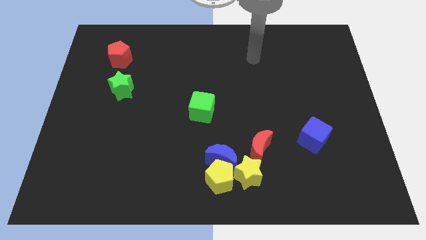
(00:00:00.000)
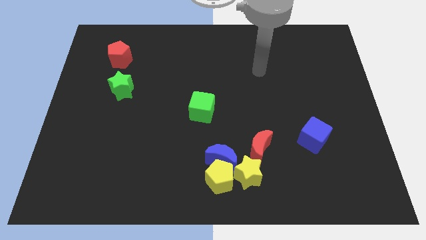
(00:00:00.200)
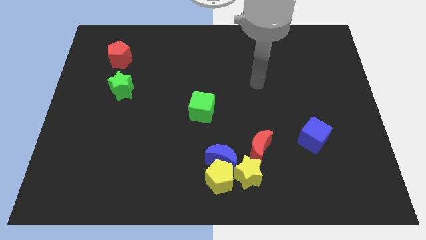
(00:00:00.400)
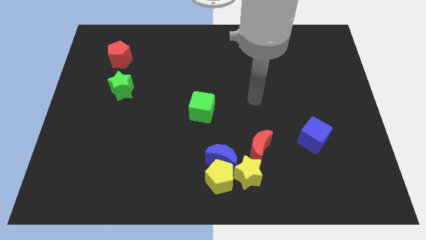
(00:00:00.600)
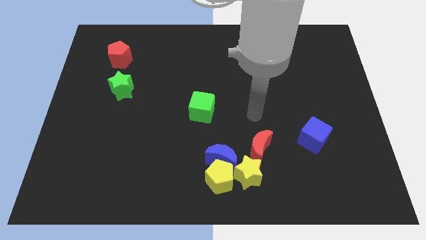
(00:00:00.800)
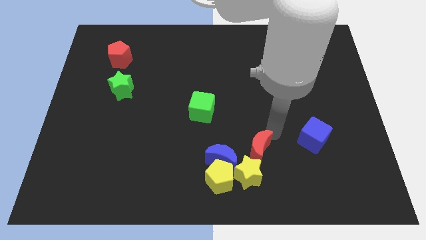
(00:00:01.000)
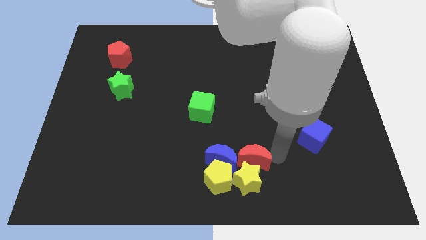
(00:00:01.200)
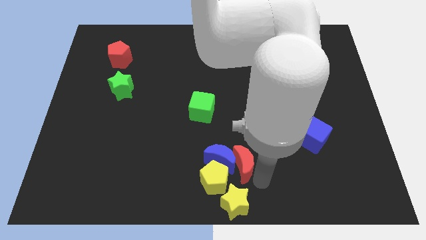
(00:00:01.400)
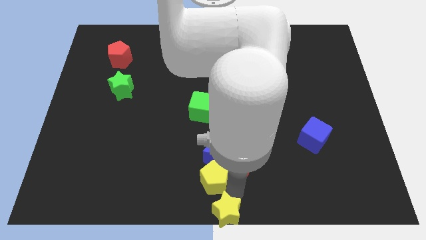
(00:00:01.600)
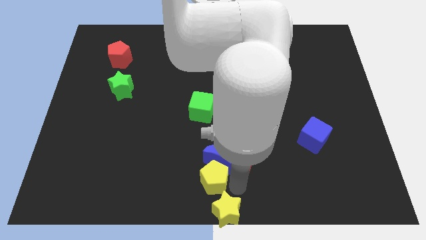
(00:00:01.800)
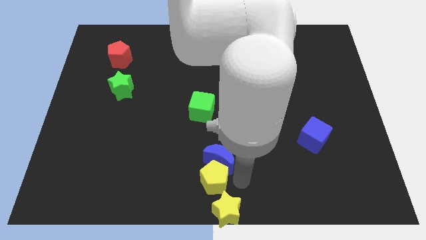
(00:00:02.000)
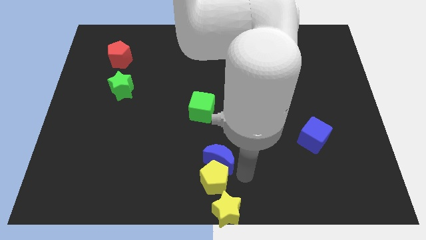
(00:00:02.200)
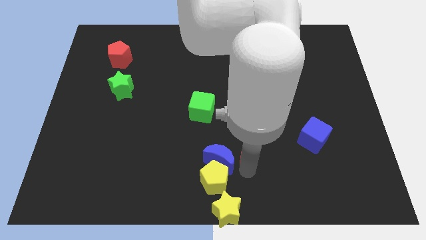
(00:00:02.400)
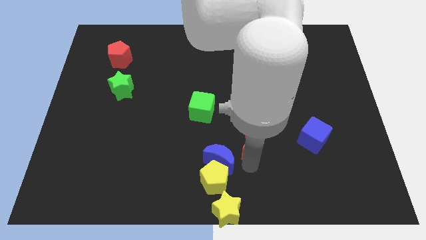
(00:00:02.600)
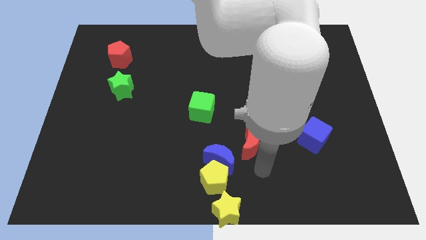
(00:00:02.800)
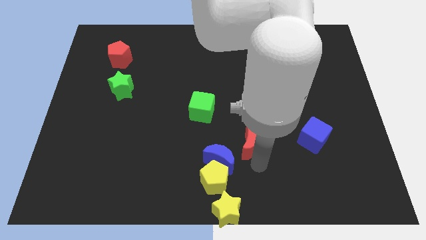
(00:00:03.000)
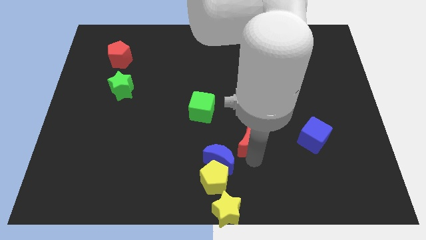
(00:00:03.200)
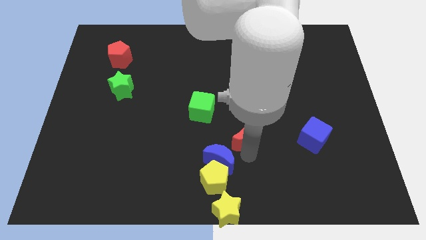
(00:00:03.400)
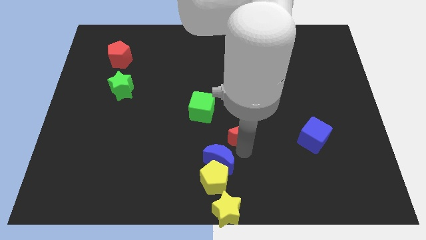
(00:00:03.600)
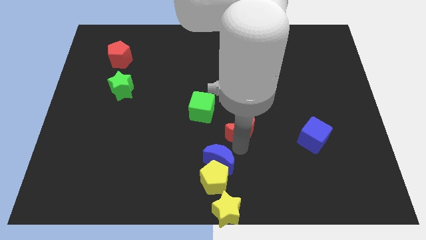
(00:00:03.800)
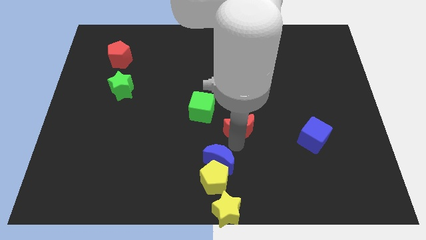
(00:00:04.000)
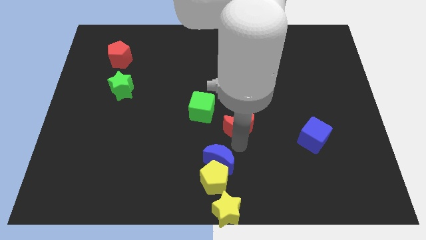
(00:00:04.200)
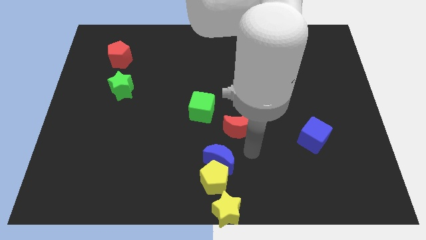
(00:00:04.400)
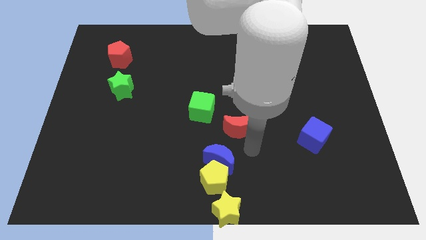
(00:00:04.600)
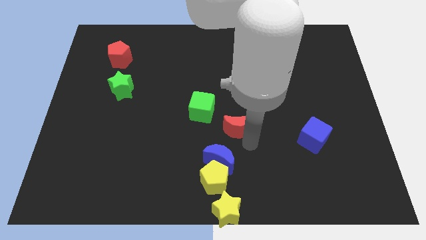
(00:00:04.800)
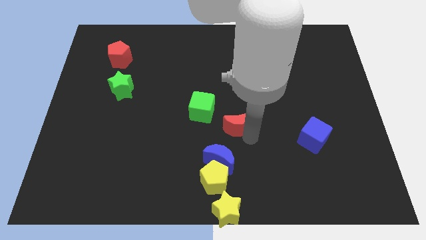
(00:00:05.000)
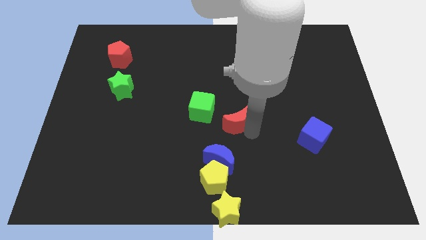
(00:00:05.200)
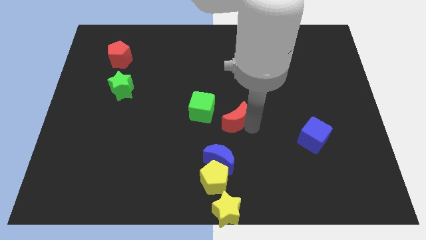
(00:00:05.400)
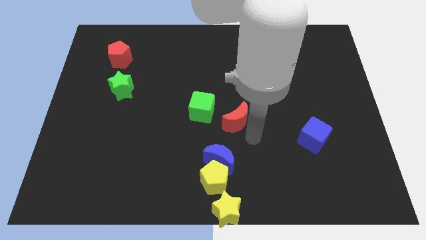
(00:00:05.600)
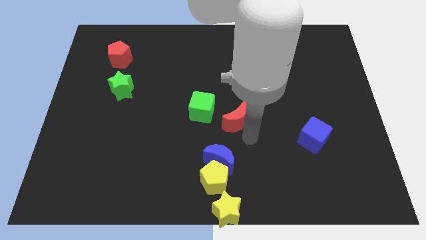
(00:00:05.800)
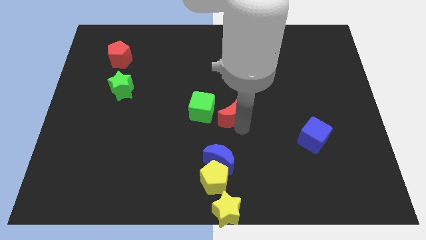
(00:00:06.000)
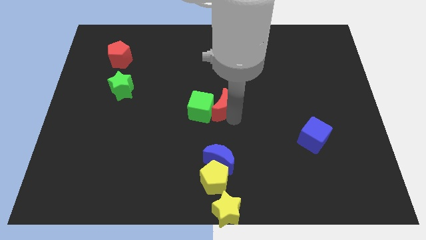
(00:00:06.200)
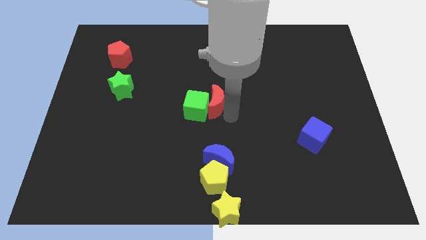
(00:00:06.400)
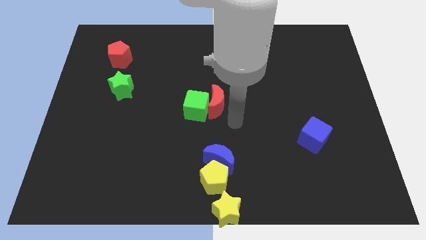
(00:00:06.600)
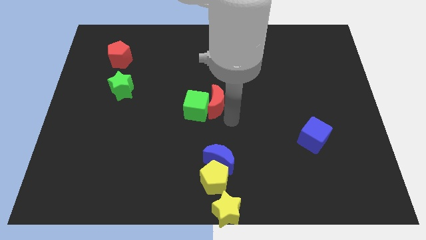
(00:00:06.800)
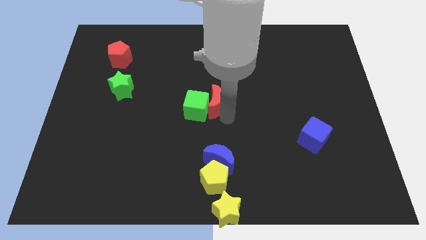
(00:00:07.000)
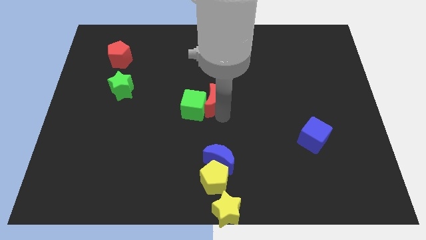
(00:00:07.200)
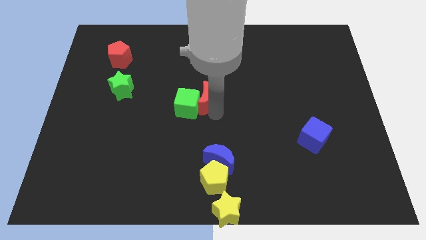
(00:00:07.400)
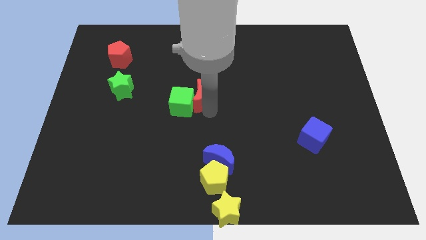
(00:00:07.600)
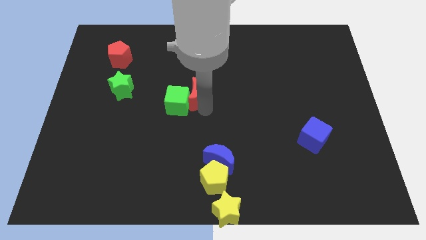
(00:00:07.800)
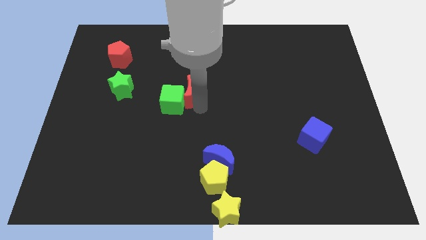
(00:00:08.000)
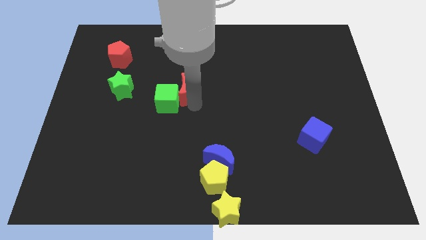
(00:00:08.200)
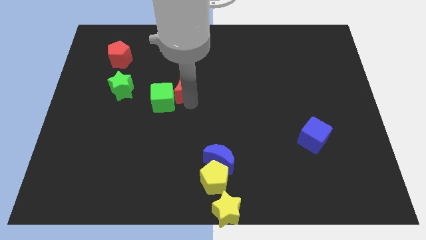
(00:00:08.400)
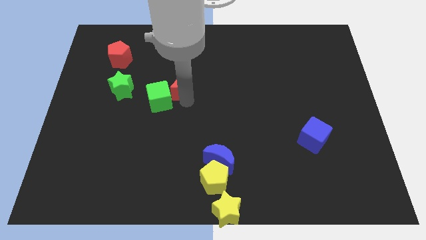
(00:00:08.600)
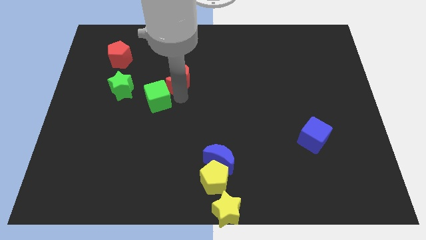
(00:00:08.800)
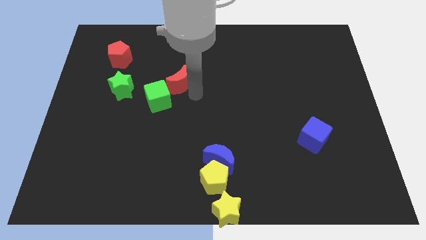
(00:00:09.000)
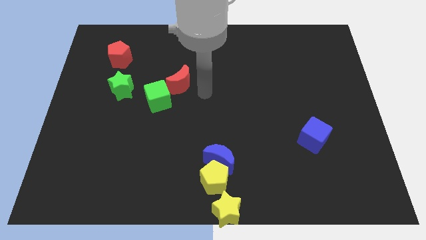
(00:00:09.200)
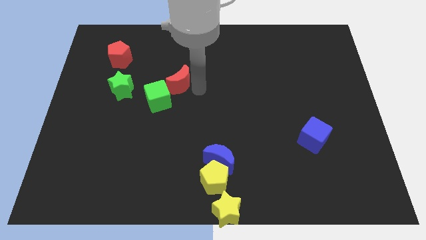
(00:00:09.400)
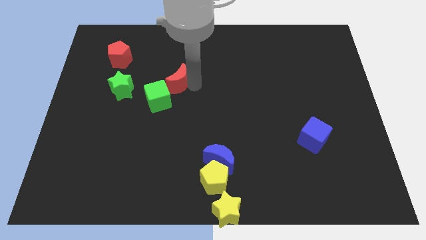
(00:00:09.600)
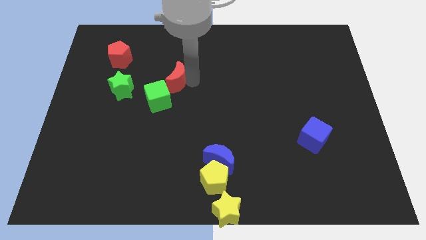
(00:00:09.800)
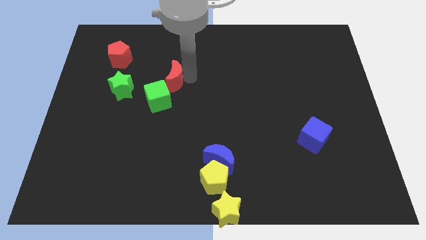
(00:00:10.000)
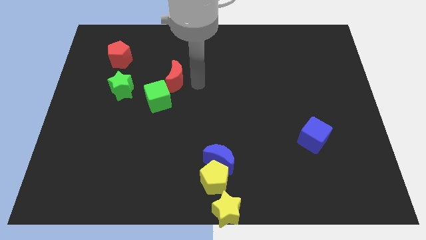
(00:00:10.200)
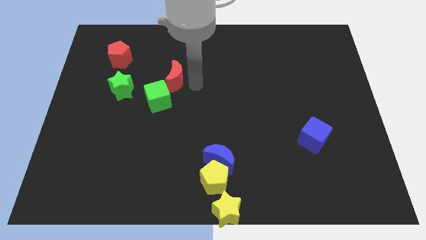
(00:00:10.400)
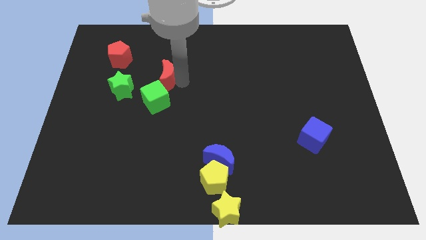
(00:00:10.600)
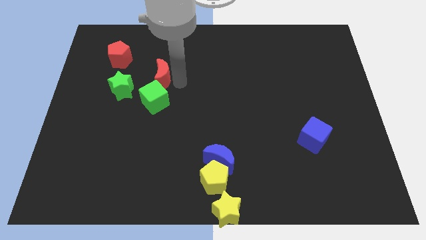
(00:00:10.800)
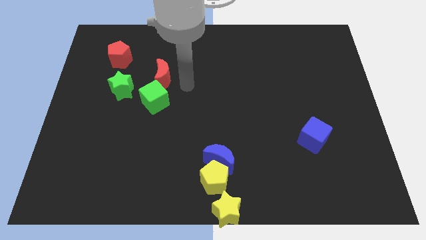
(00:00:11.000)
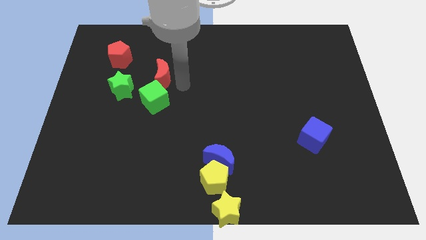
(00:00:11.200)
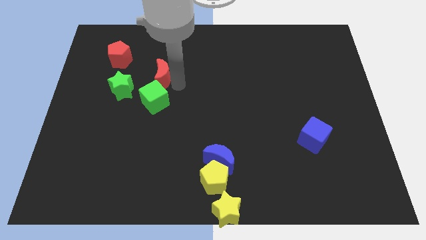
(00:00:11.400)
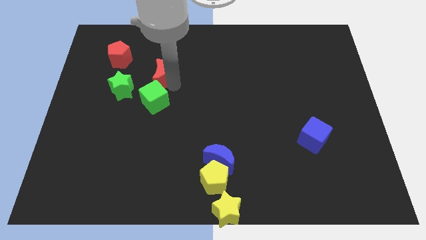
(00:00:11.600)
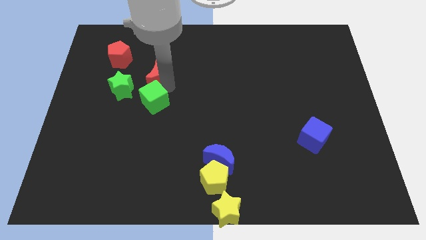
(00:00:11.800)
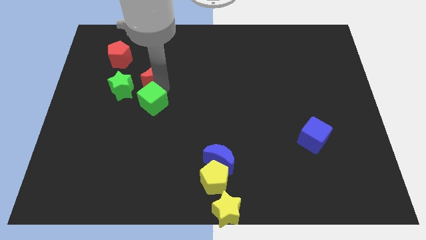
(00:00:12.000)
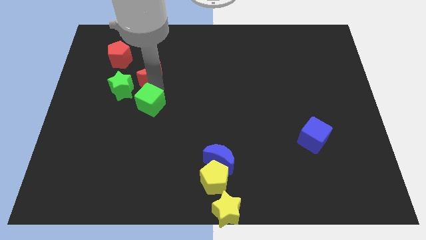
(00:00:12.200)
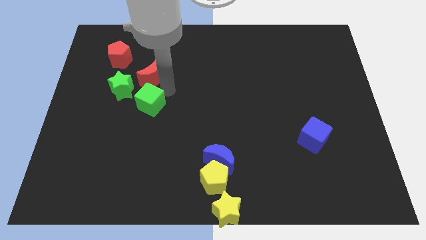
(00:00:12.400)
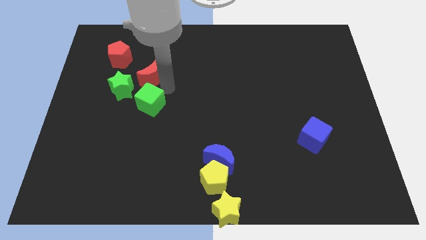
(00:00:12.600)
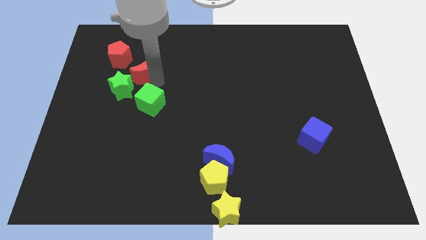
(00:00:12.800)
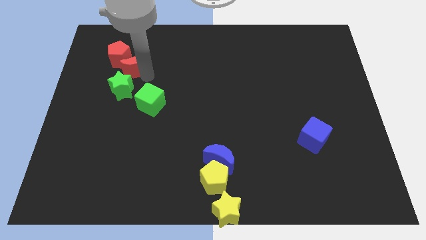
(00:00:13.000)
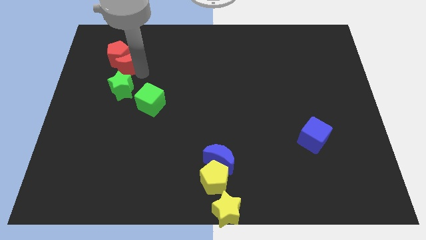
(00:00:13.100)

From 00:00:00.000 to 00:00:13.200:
push the red moon close to the red pentagon

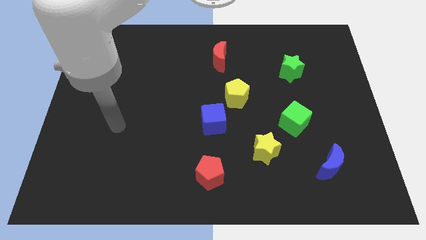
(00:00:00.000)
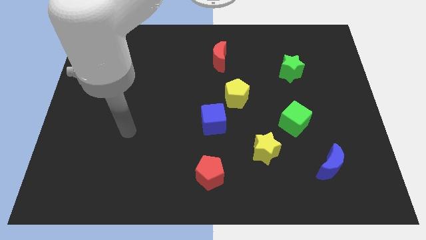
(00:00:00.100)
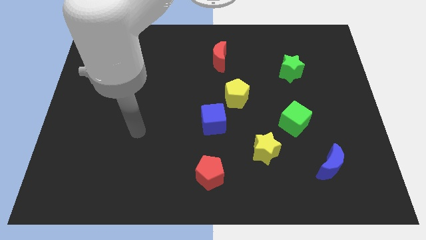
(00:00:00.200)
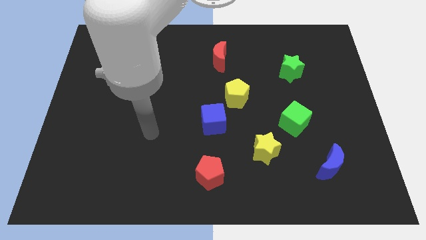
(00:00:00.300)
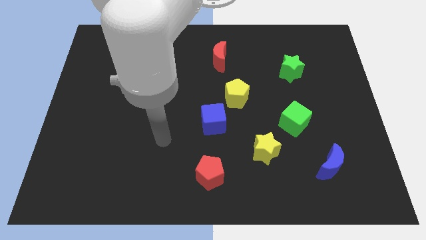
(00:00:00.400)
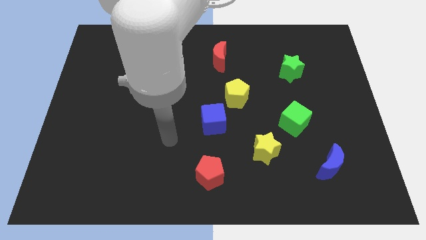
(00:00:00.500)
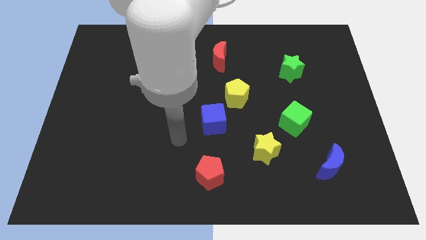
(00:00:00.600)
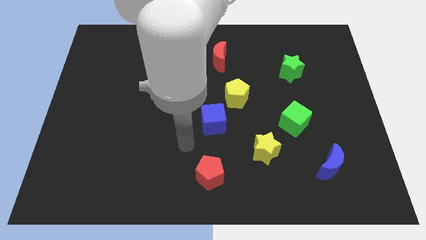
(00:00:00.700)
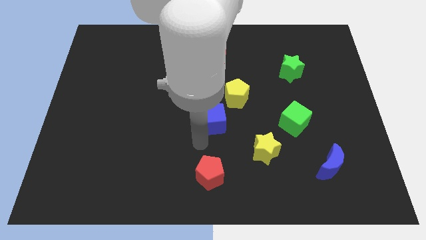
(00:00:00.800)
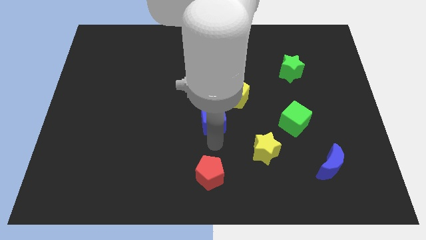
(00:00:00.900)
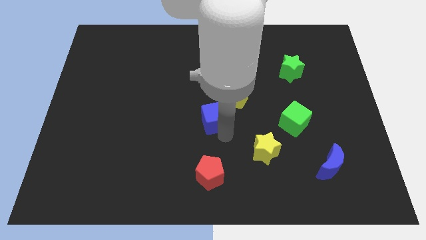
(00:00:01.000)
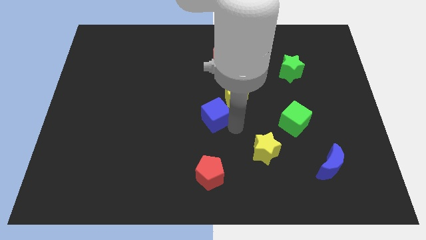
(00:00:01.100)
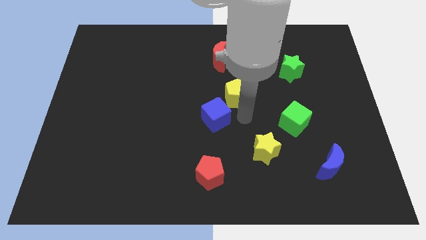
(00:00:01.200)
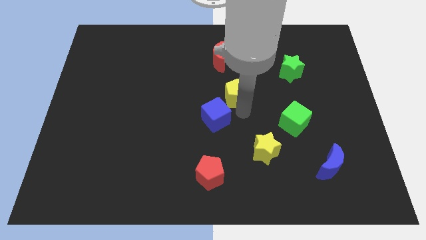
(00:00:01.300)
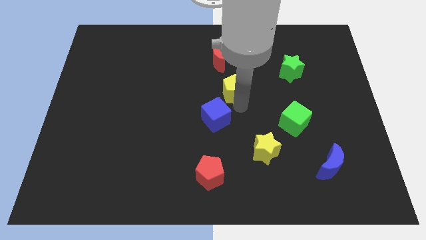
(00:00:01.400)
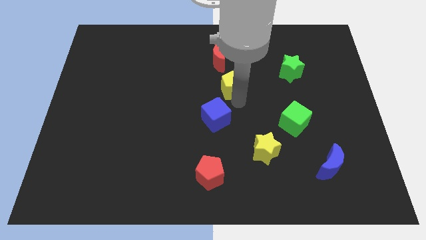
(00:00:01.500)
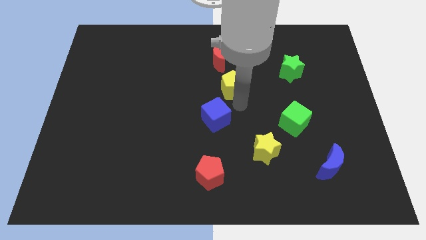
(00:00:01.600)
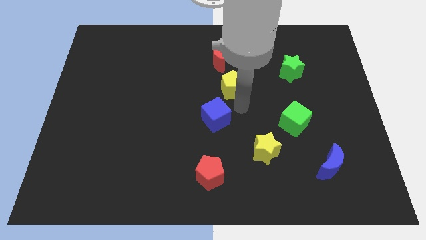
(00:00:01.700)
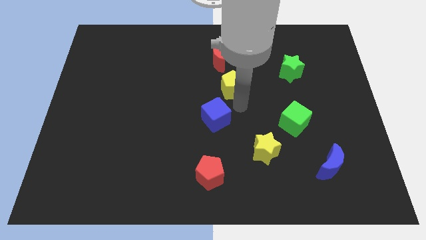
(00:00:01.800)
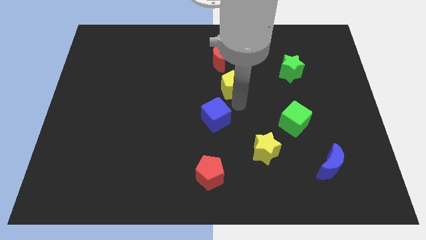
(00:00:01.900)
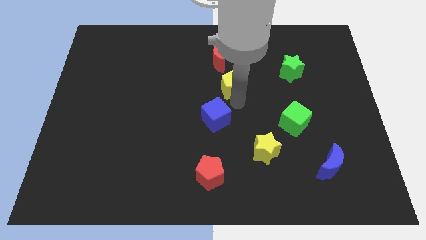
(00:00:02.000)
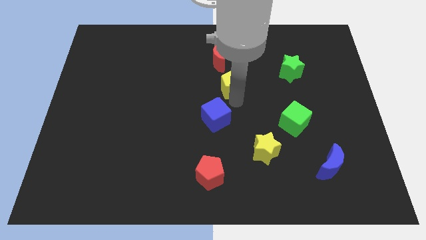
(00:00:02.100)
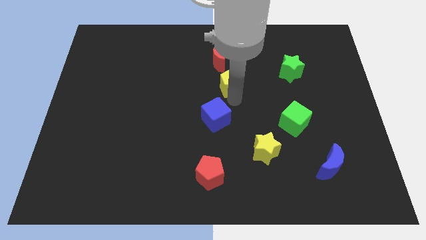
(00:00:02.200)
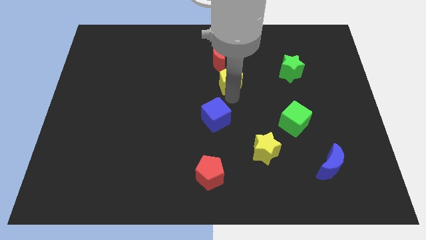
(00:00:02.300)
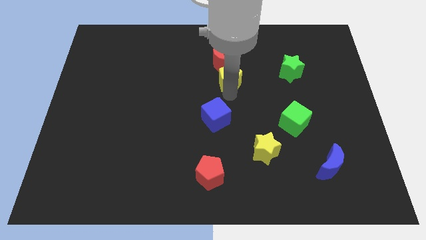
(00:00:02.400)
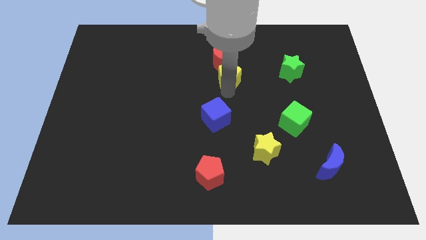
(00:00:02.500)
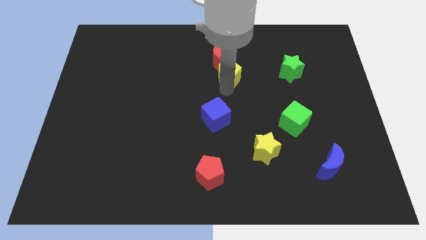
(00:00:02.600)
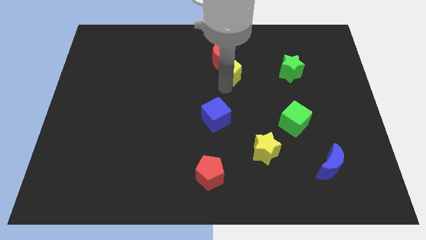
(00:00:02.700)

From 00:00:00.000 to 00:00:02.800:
put the yellow pentagon next to the red moon
